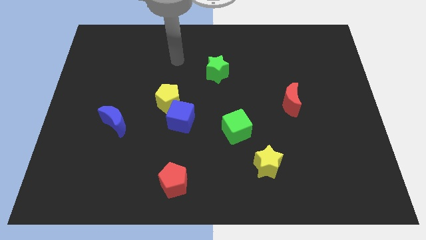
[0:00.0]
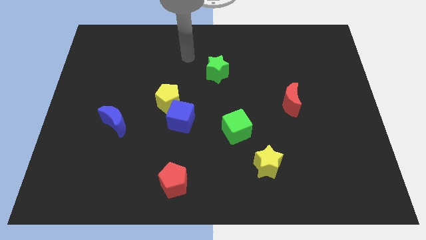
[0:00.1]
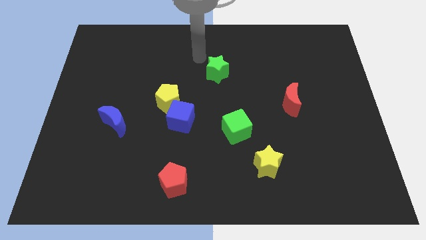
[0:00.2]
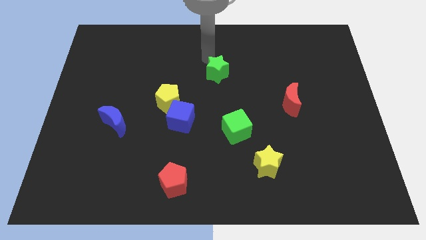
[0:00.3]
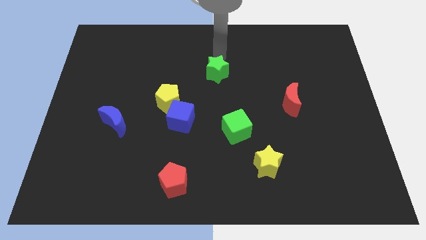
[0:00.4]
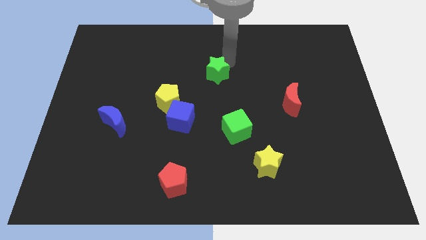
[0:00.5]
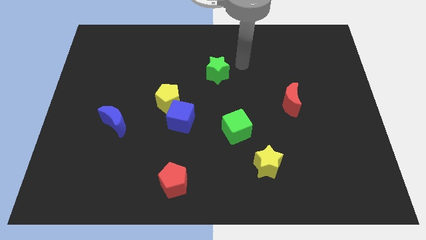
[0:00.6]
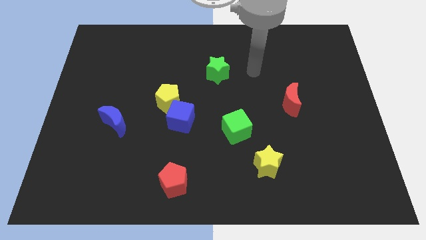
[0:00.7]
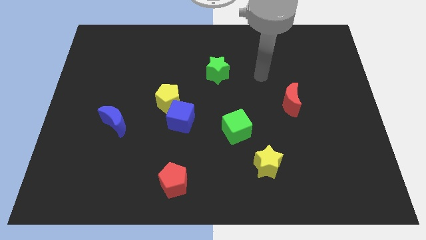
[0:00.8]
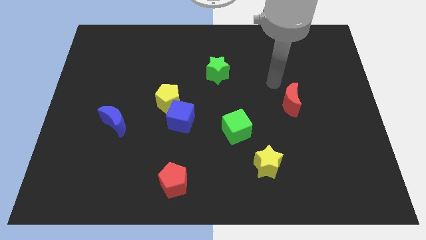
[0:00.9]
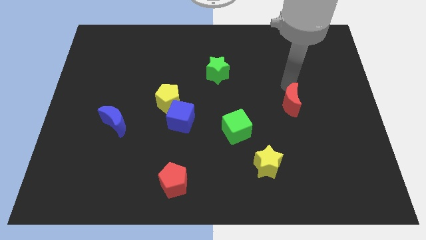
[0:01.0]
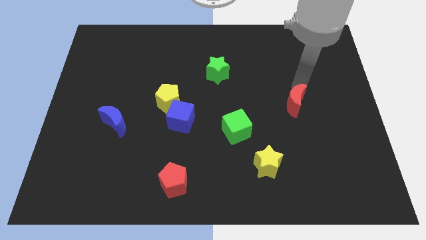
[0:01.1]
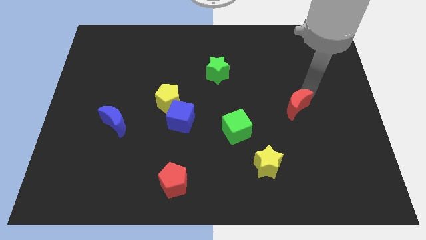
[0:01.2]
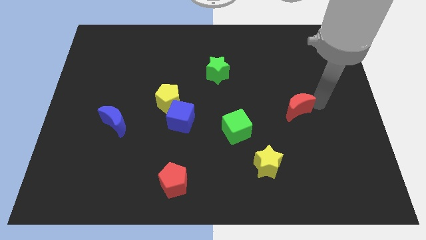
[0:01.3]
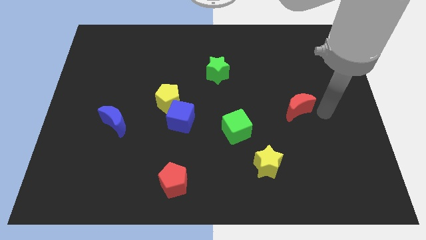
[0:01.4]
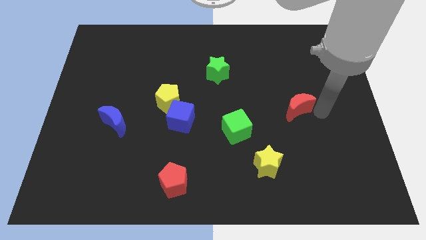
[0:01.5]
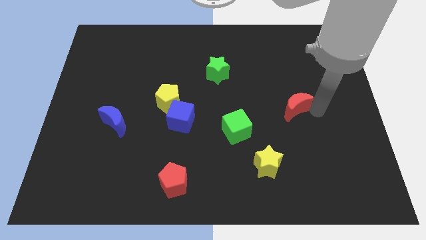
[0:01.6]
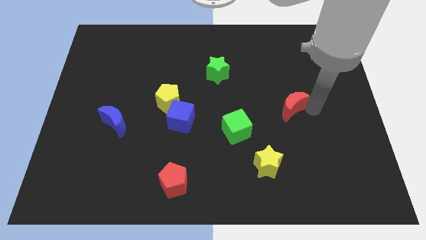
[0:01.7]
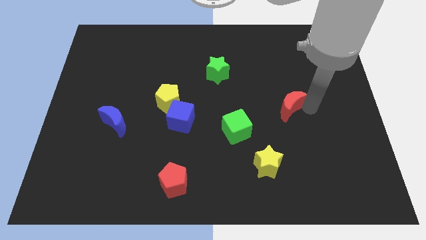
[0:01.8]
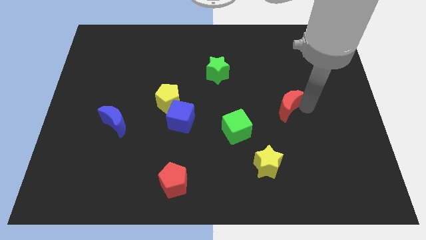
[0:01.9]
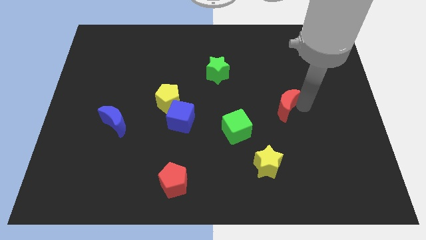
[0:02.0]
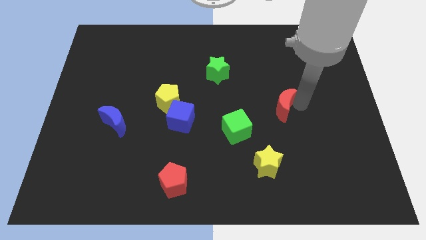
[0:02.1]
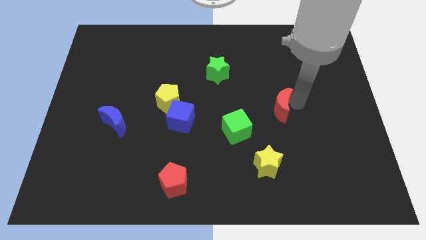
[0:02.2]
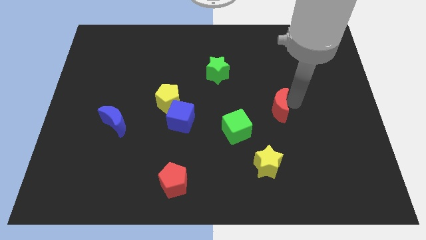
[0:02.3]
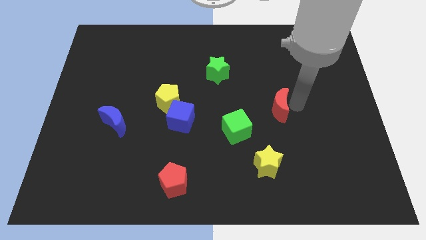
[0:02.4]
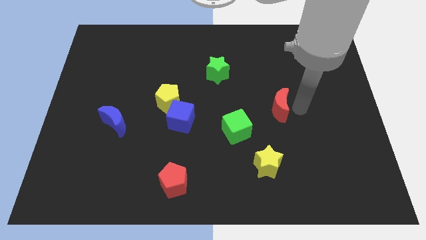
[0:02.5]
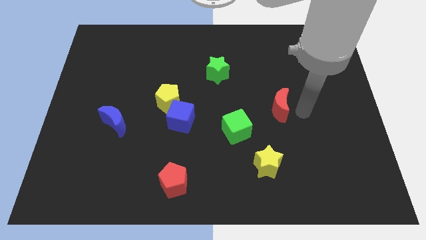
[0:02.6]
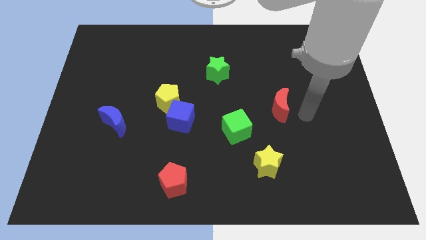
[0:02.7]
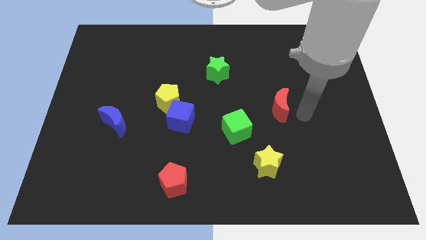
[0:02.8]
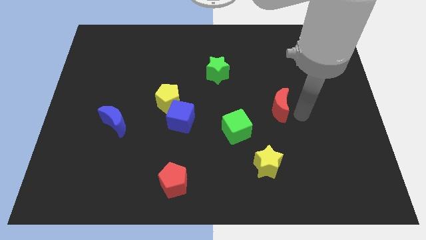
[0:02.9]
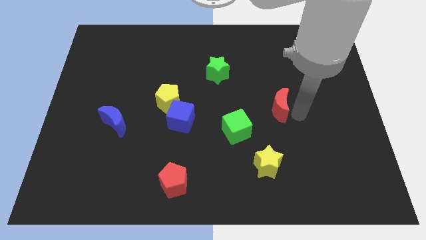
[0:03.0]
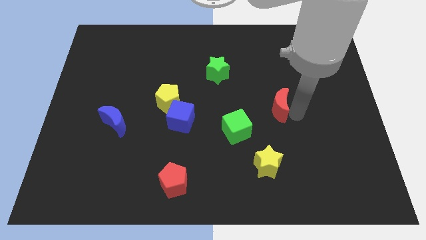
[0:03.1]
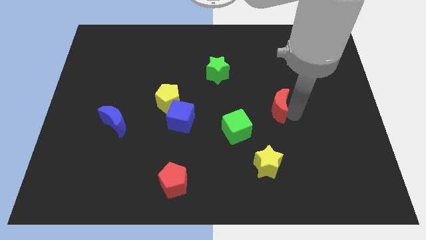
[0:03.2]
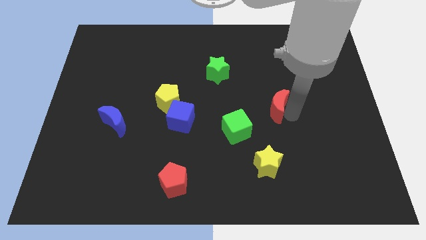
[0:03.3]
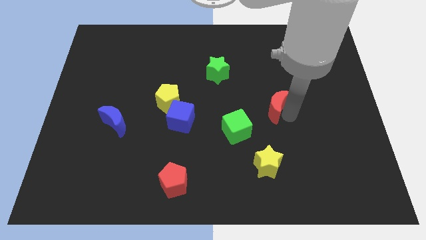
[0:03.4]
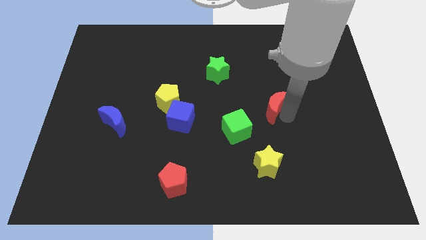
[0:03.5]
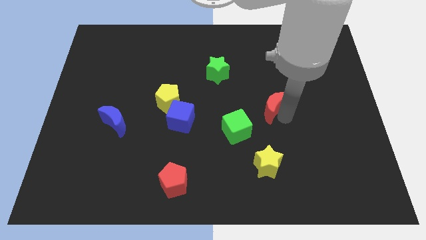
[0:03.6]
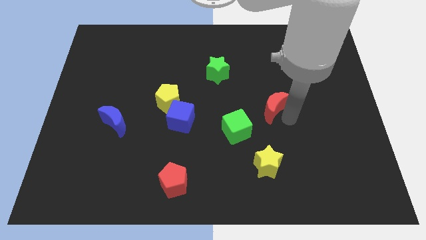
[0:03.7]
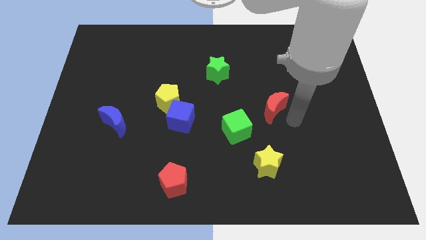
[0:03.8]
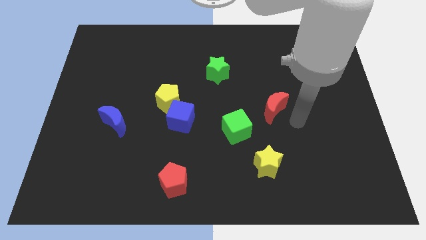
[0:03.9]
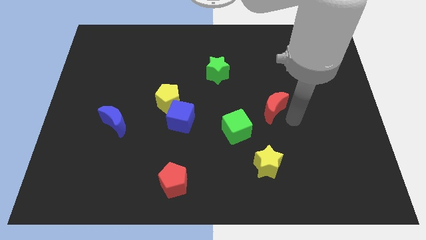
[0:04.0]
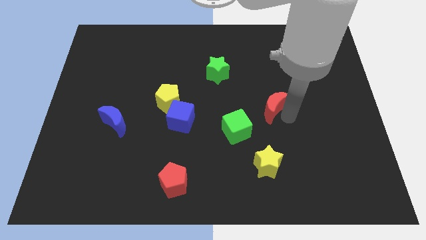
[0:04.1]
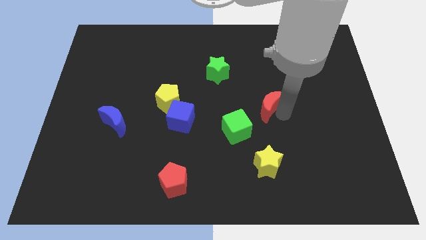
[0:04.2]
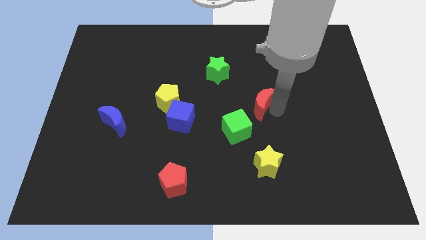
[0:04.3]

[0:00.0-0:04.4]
push the red moon left a bit

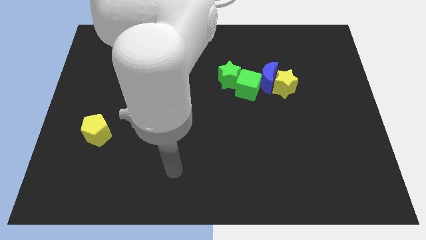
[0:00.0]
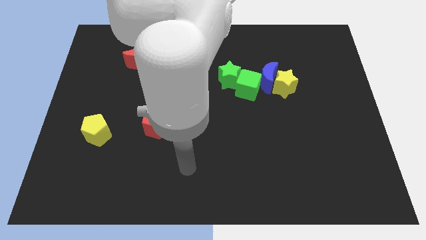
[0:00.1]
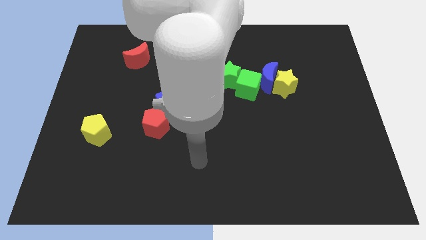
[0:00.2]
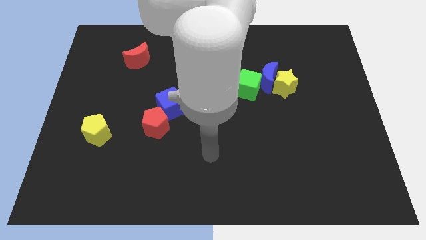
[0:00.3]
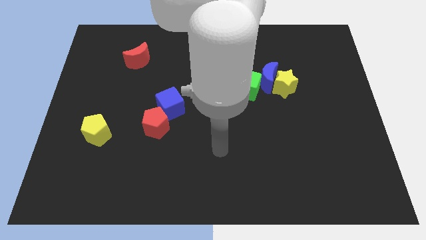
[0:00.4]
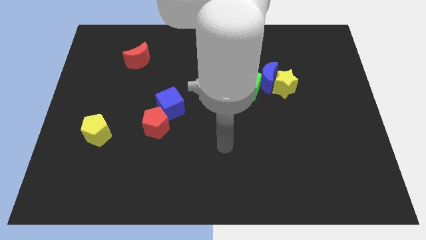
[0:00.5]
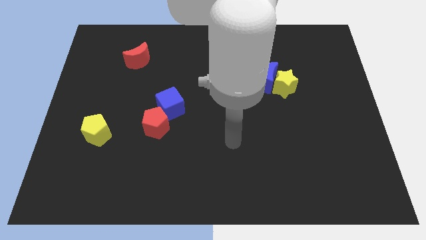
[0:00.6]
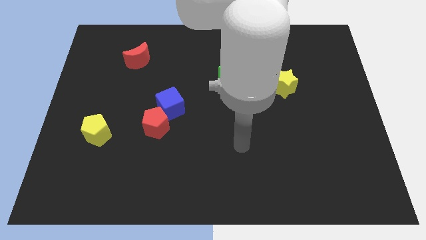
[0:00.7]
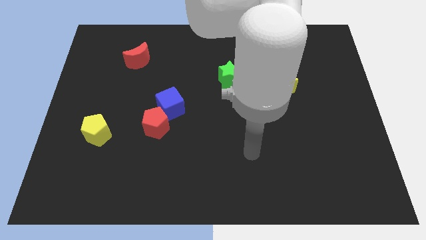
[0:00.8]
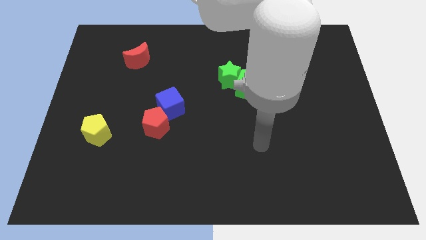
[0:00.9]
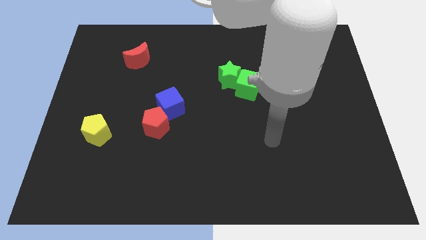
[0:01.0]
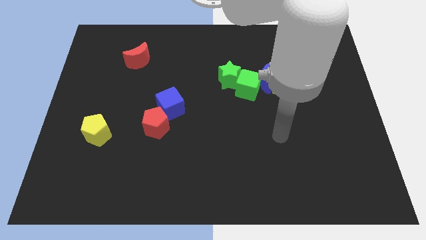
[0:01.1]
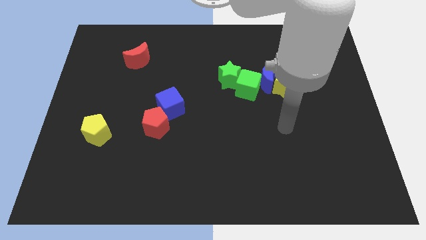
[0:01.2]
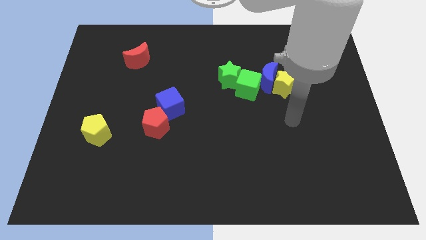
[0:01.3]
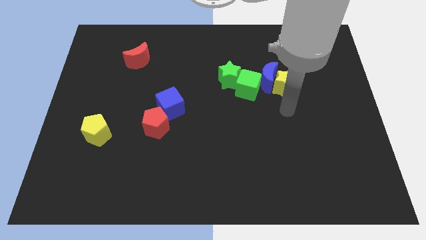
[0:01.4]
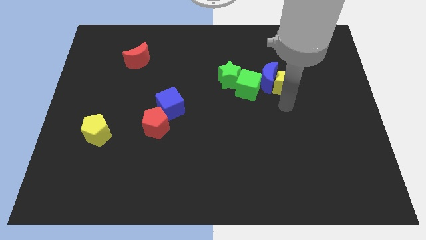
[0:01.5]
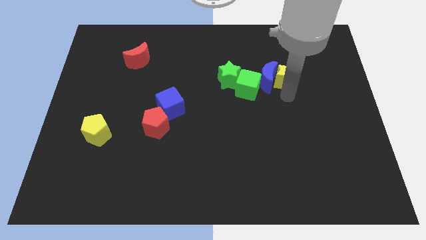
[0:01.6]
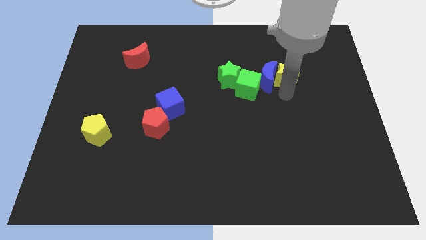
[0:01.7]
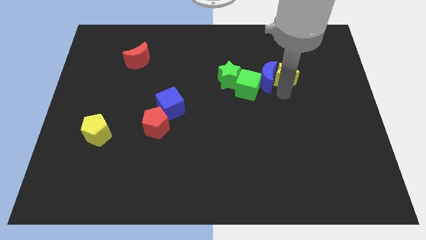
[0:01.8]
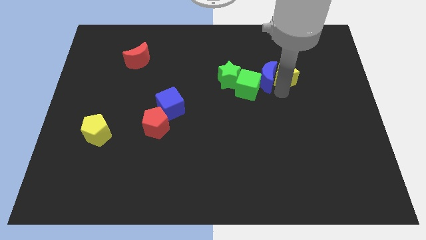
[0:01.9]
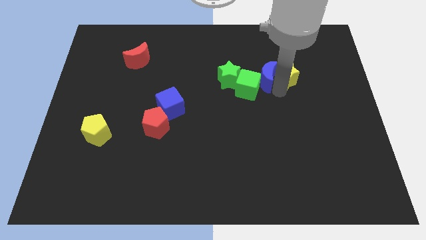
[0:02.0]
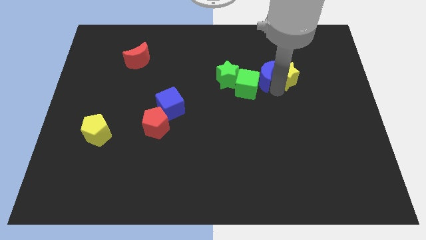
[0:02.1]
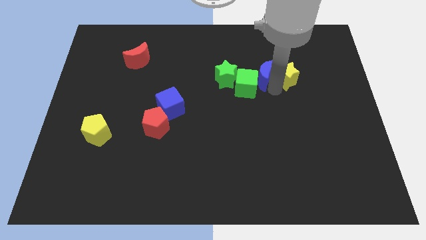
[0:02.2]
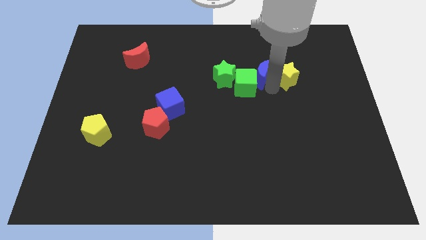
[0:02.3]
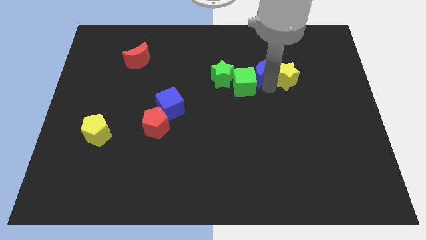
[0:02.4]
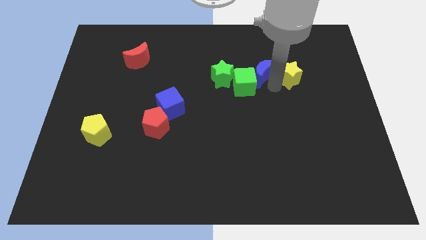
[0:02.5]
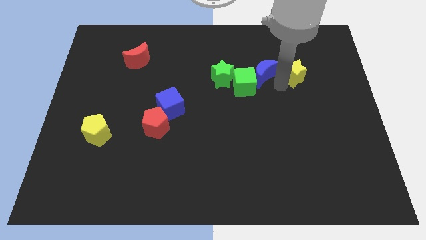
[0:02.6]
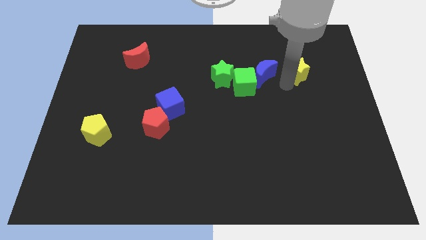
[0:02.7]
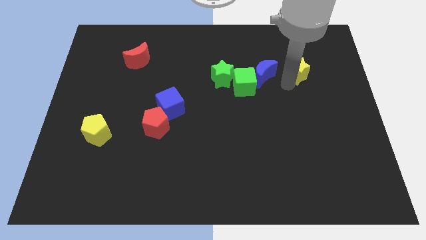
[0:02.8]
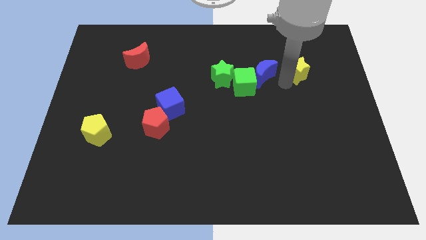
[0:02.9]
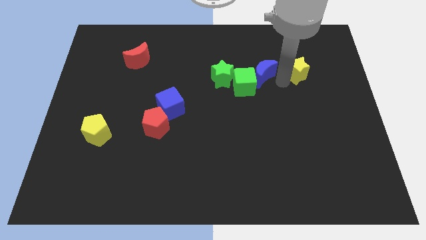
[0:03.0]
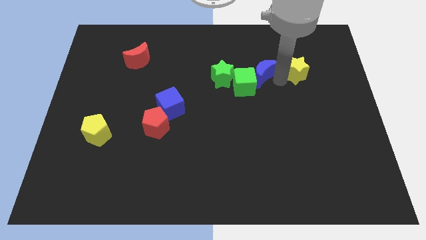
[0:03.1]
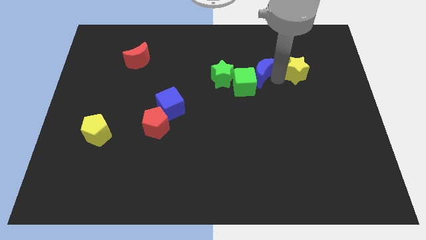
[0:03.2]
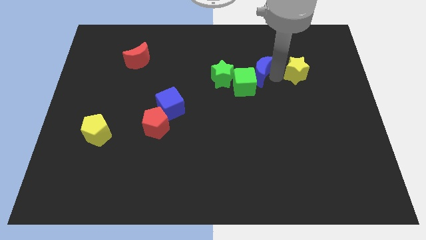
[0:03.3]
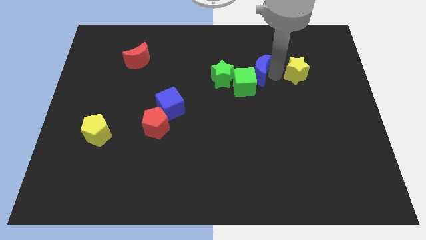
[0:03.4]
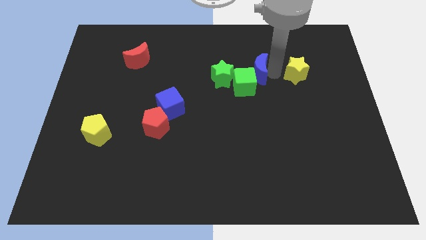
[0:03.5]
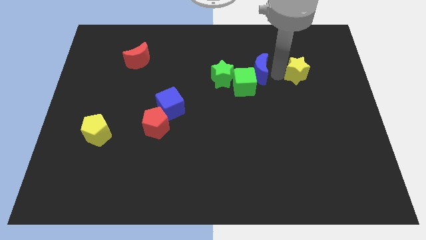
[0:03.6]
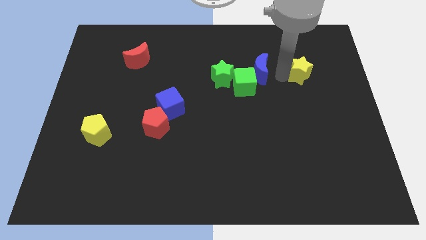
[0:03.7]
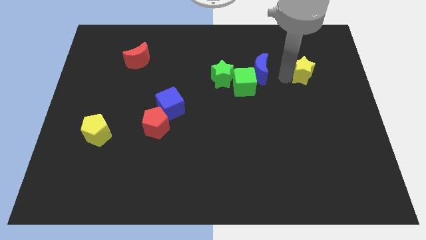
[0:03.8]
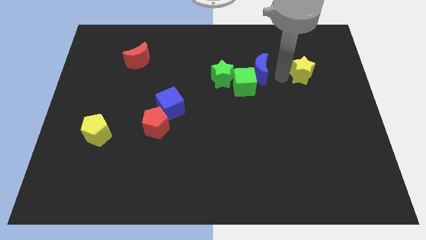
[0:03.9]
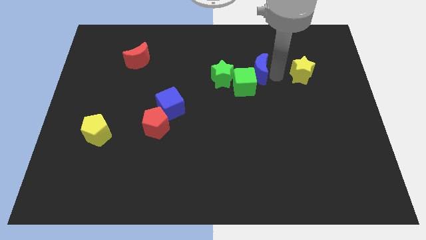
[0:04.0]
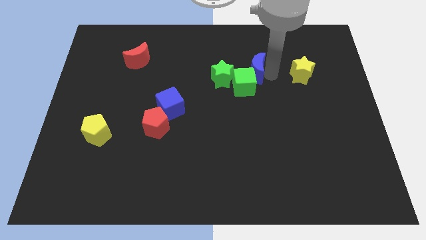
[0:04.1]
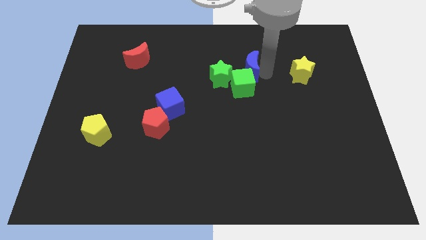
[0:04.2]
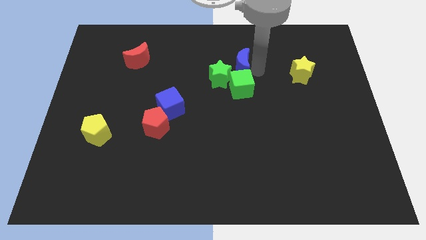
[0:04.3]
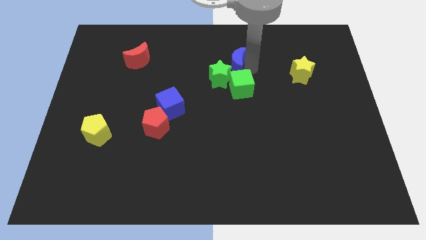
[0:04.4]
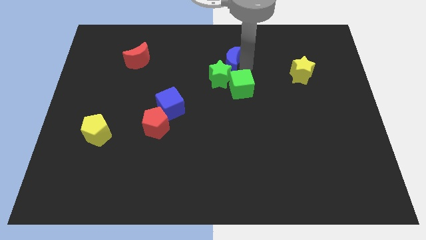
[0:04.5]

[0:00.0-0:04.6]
move the blue moon to the left a bit
